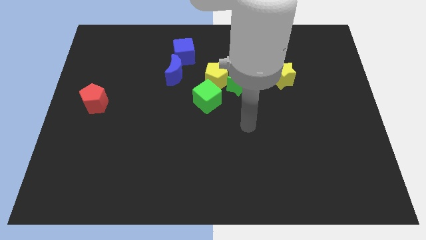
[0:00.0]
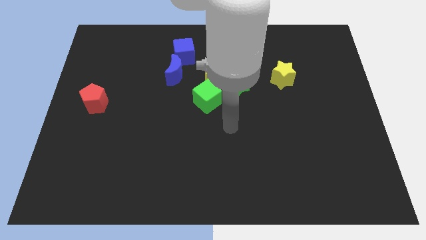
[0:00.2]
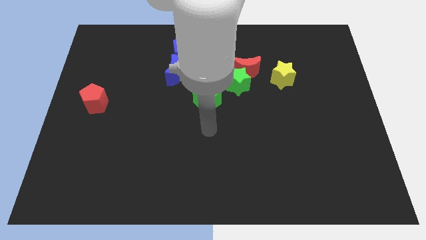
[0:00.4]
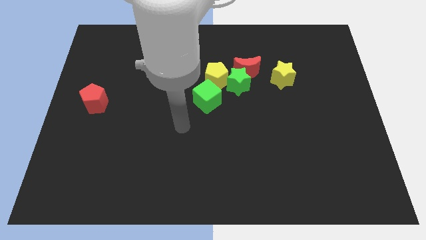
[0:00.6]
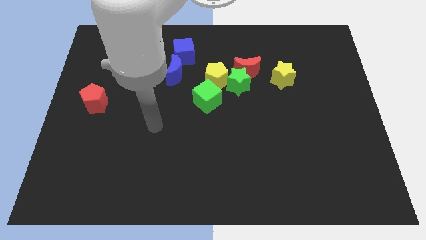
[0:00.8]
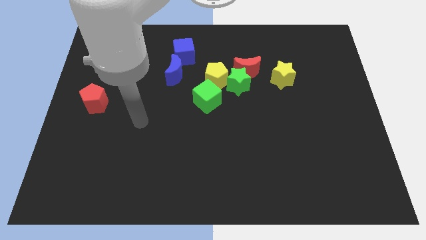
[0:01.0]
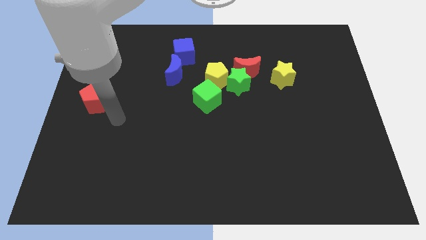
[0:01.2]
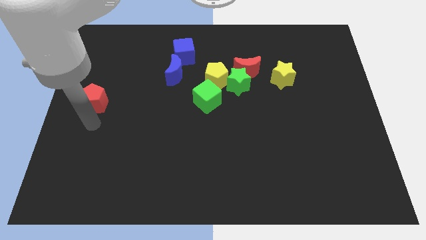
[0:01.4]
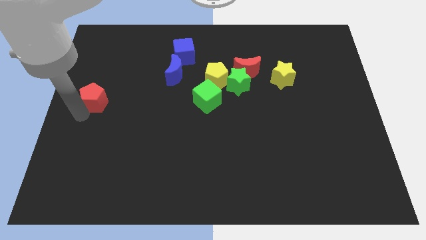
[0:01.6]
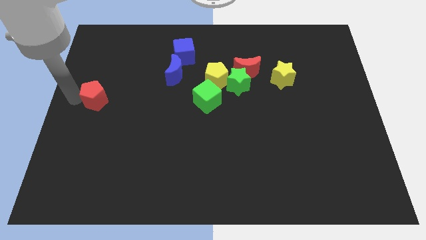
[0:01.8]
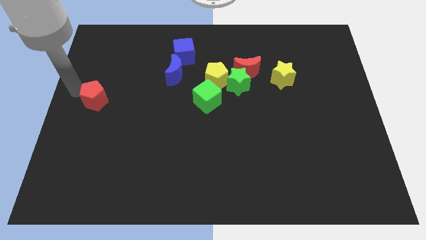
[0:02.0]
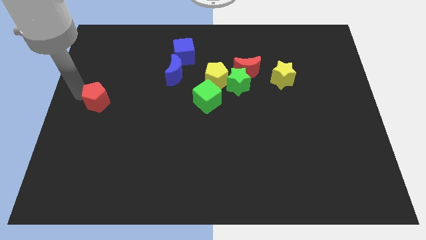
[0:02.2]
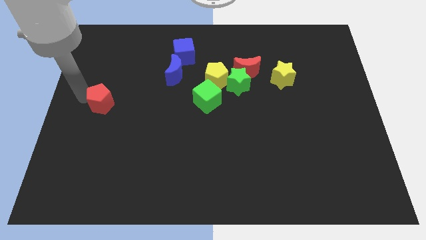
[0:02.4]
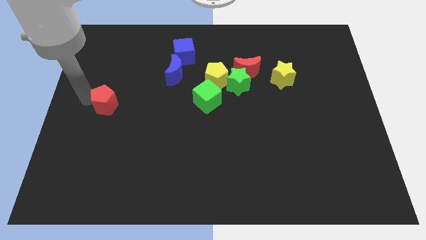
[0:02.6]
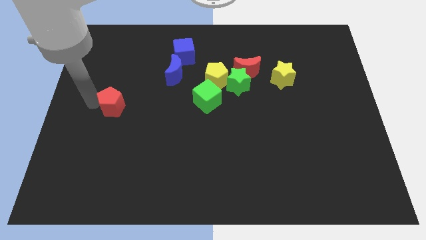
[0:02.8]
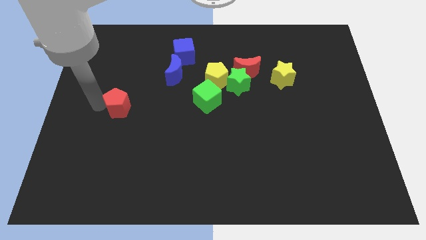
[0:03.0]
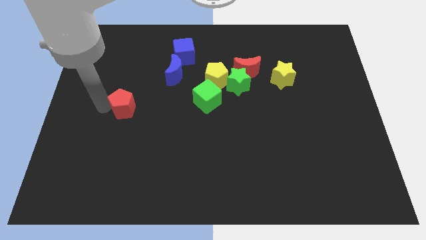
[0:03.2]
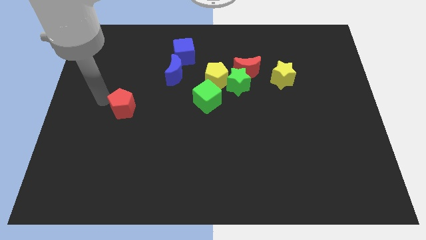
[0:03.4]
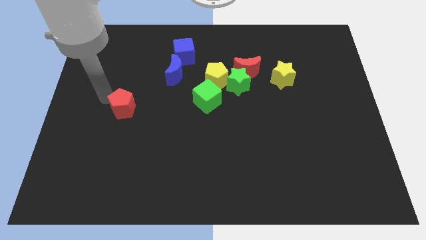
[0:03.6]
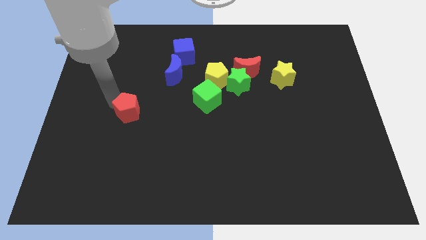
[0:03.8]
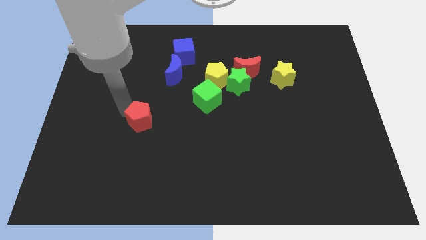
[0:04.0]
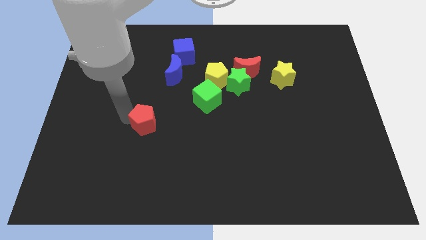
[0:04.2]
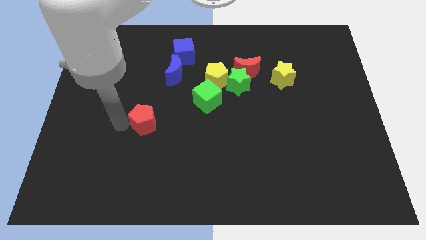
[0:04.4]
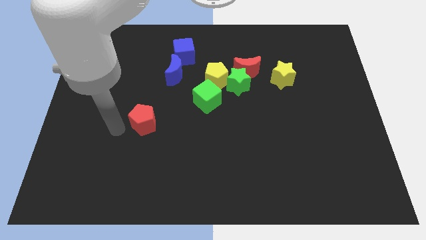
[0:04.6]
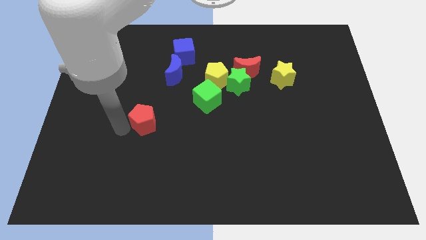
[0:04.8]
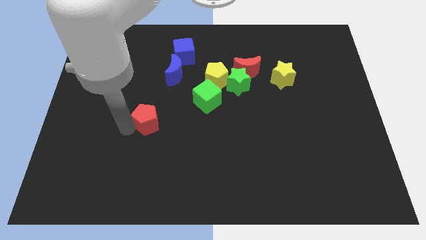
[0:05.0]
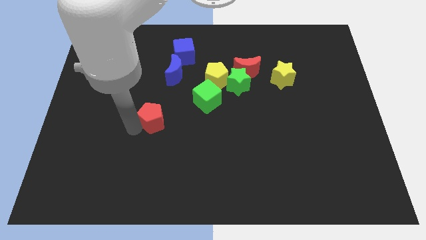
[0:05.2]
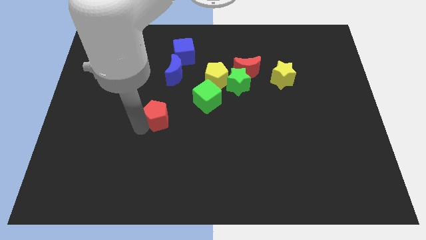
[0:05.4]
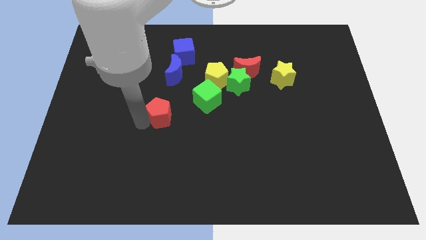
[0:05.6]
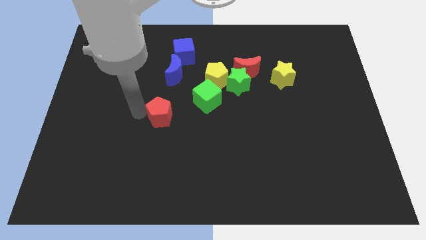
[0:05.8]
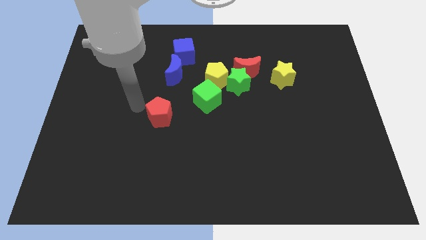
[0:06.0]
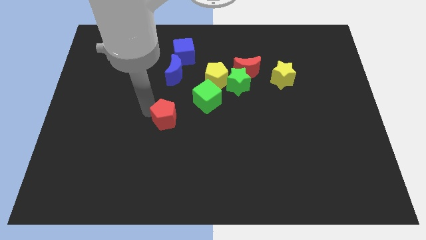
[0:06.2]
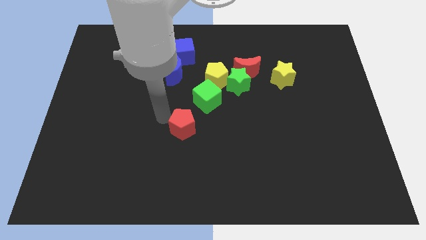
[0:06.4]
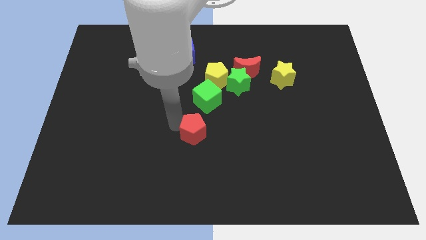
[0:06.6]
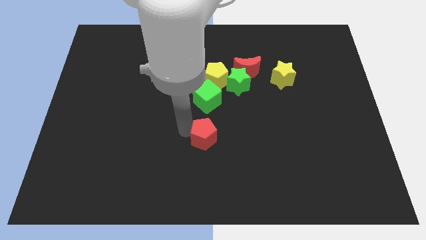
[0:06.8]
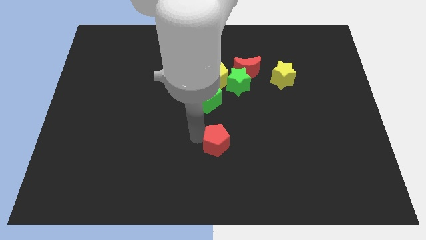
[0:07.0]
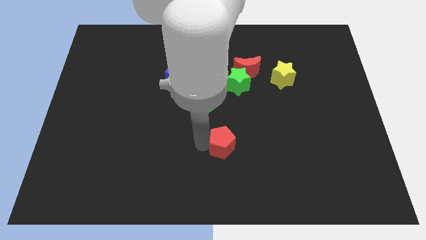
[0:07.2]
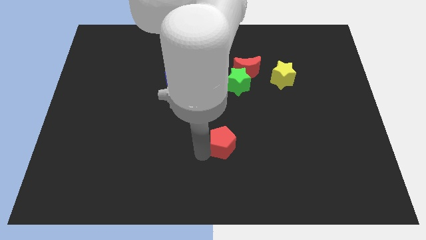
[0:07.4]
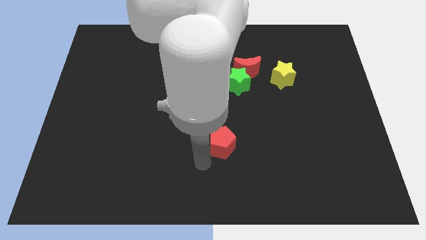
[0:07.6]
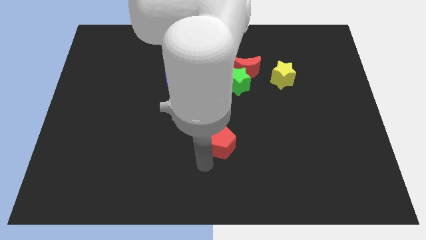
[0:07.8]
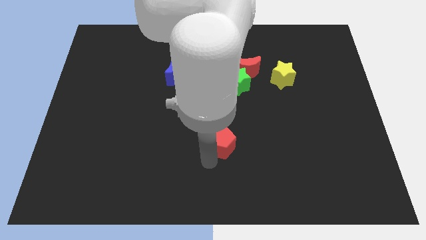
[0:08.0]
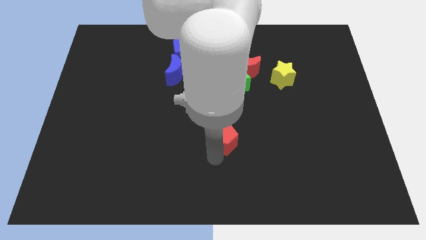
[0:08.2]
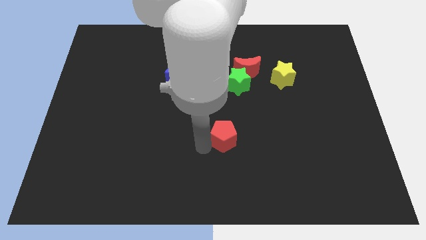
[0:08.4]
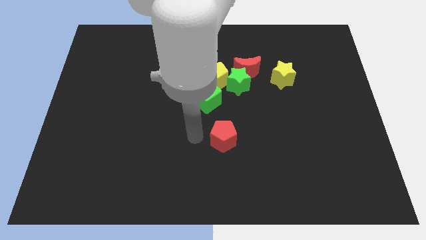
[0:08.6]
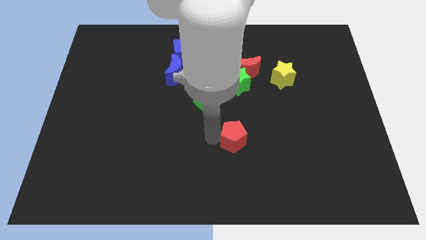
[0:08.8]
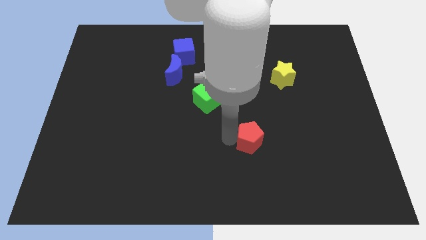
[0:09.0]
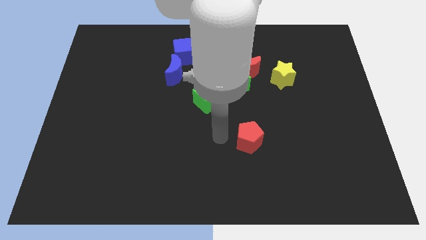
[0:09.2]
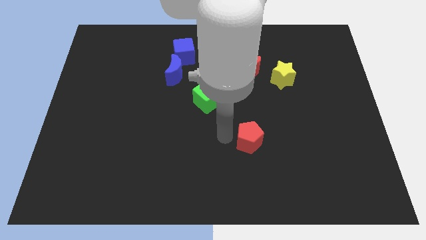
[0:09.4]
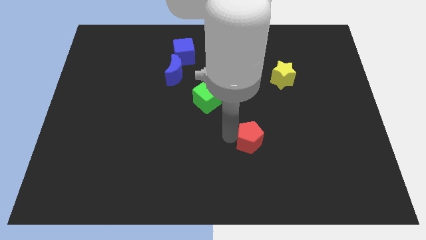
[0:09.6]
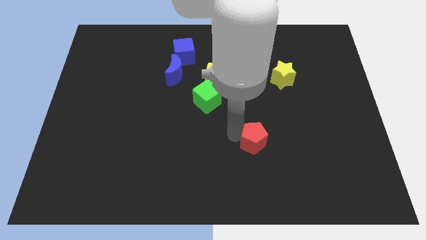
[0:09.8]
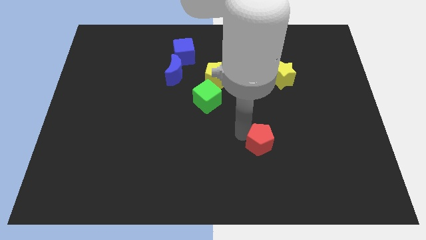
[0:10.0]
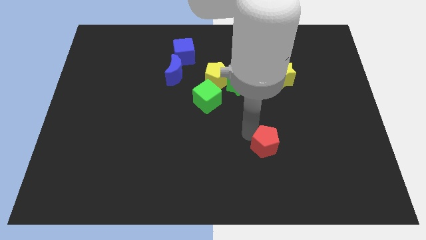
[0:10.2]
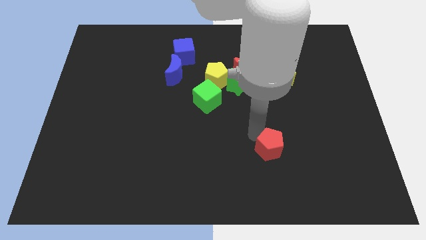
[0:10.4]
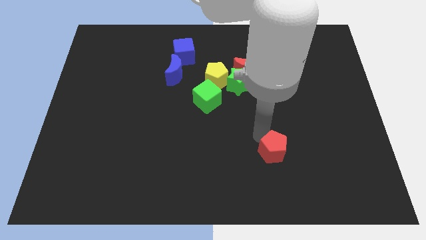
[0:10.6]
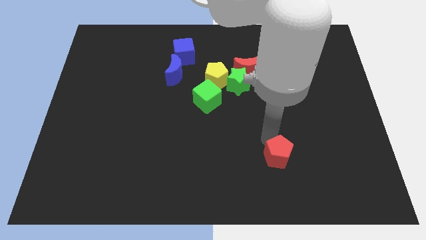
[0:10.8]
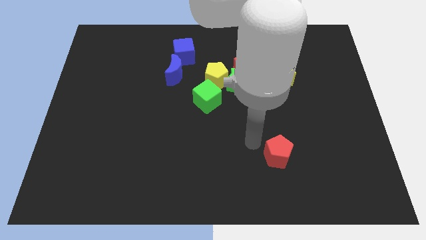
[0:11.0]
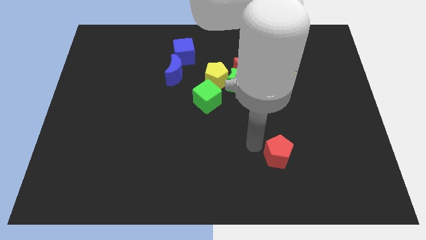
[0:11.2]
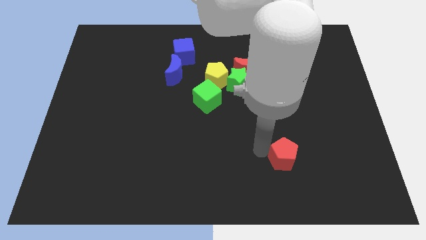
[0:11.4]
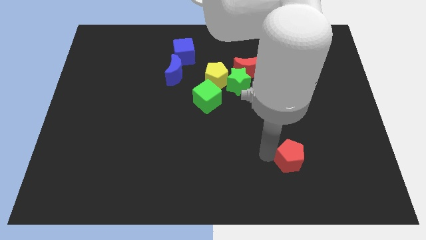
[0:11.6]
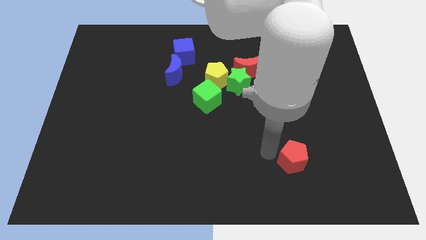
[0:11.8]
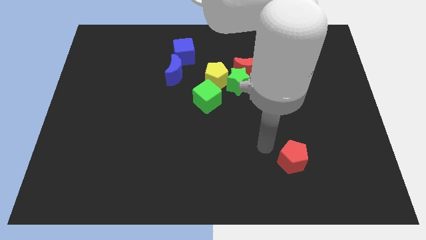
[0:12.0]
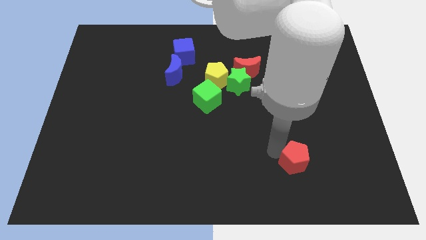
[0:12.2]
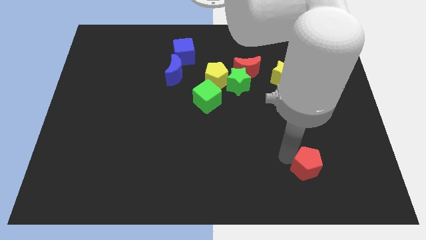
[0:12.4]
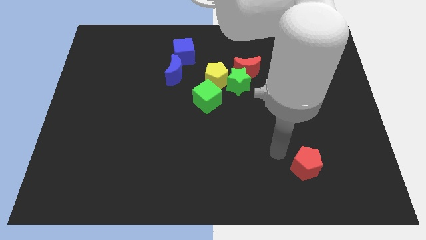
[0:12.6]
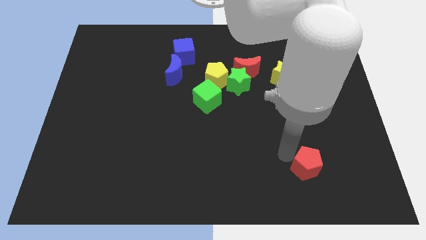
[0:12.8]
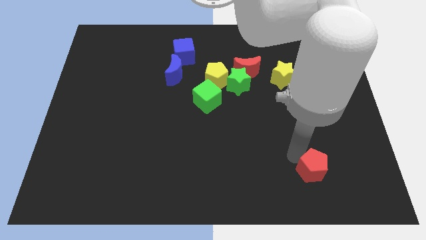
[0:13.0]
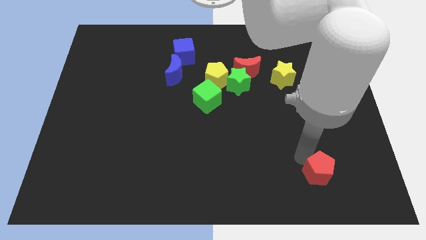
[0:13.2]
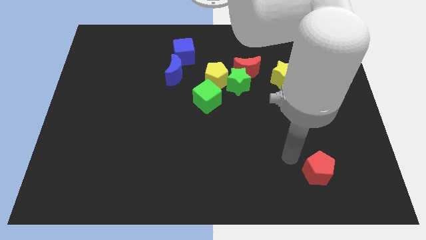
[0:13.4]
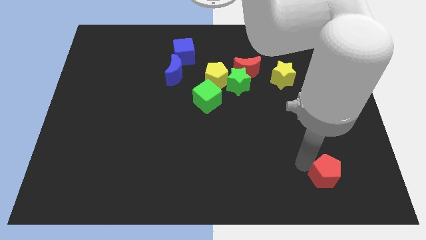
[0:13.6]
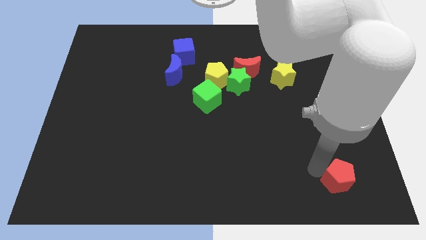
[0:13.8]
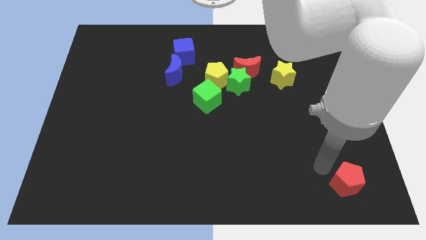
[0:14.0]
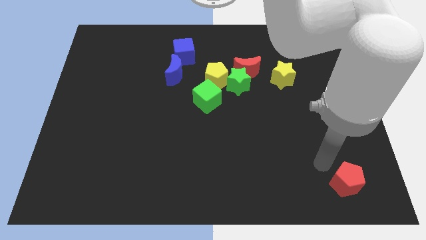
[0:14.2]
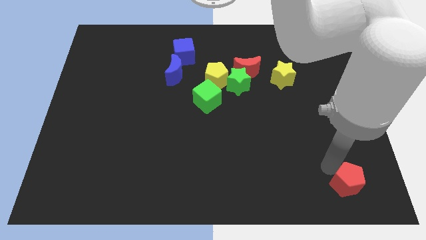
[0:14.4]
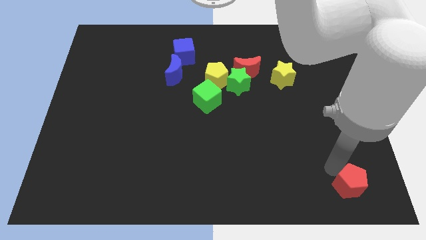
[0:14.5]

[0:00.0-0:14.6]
slide the red pentagon to the bottom right corner
